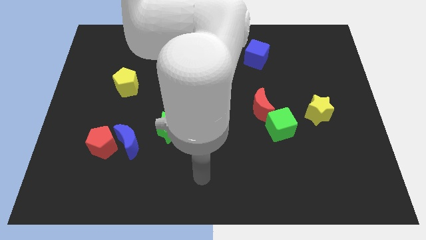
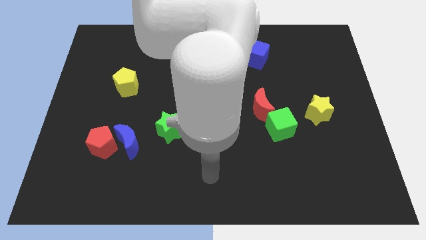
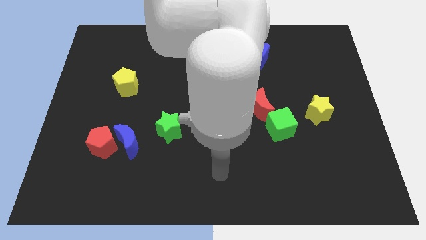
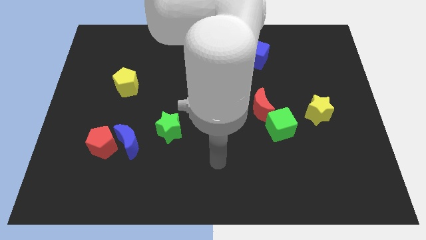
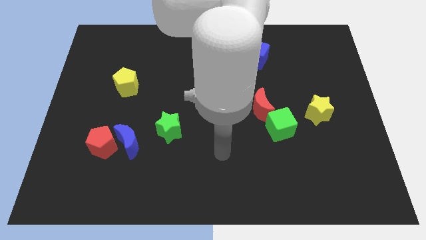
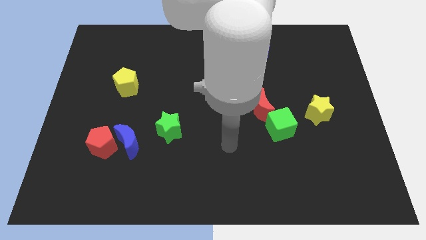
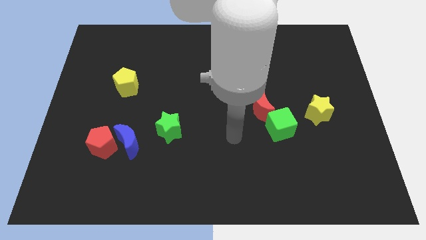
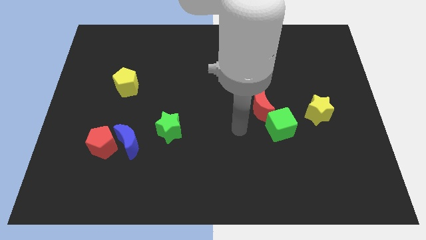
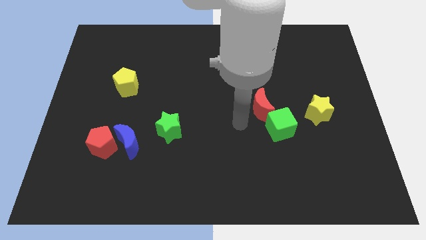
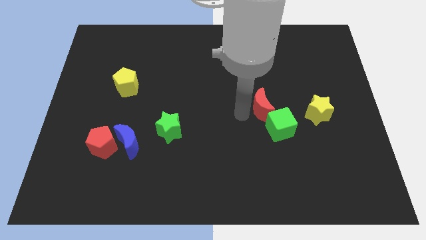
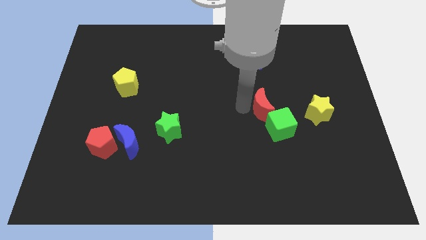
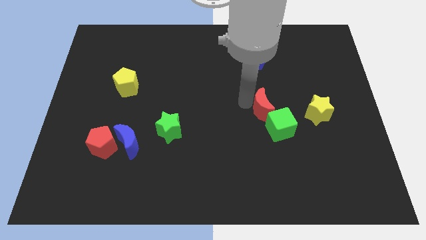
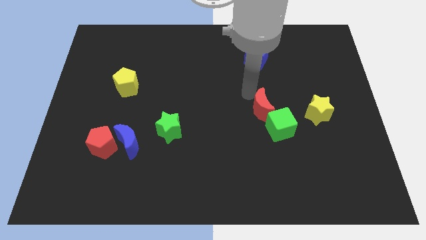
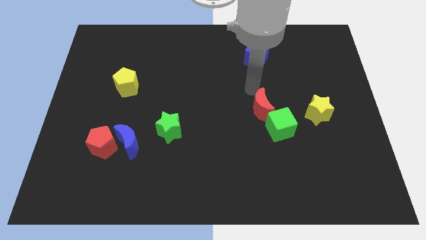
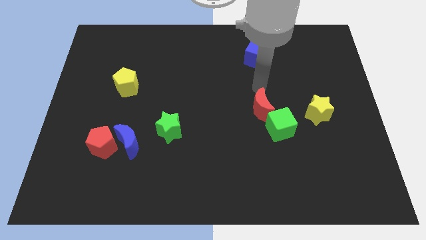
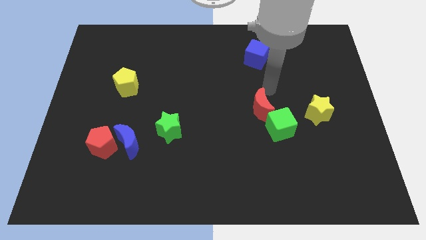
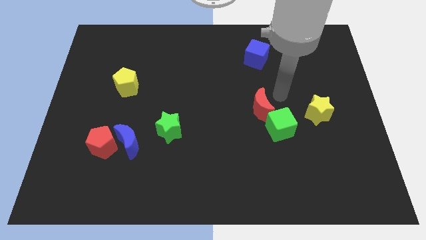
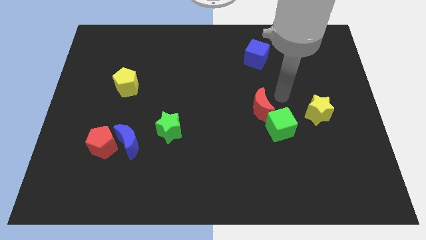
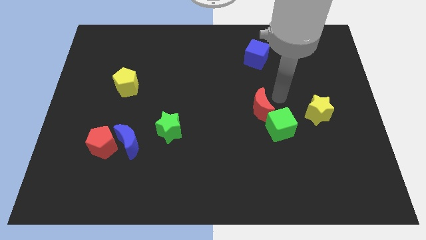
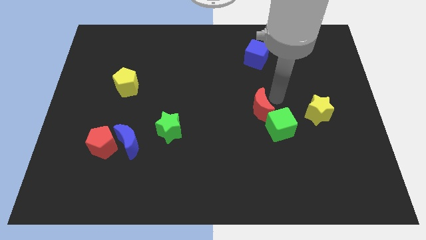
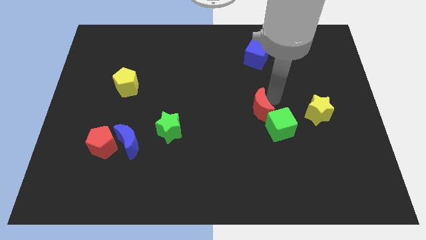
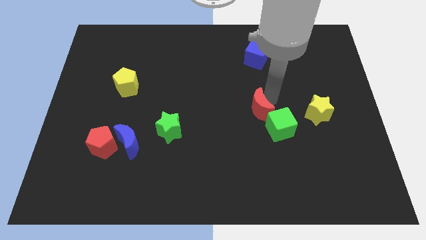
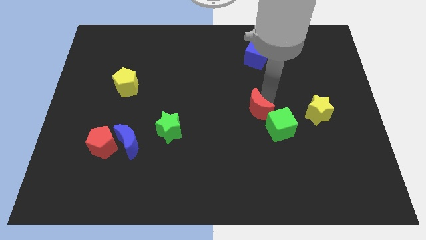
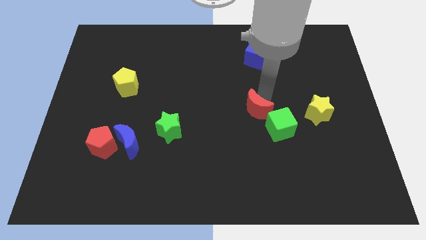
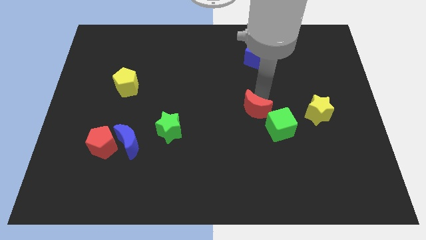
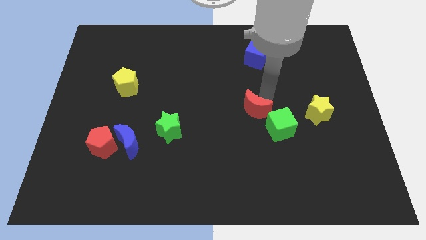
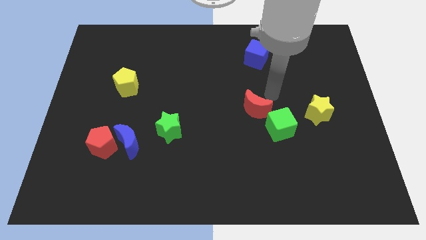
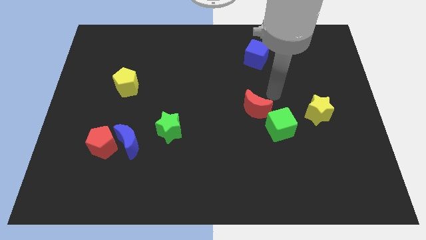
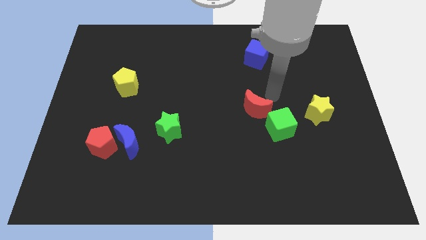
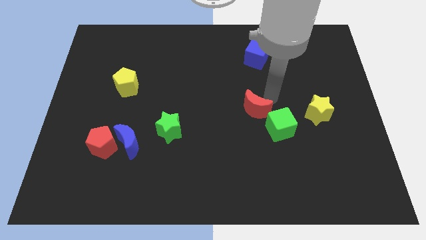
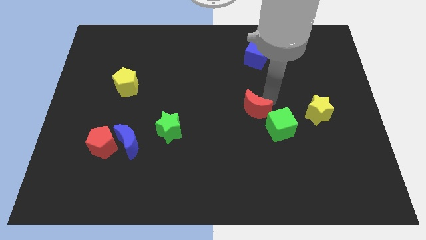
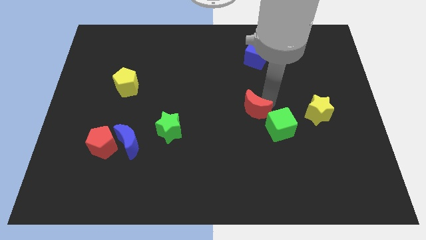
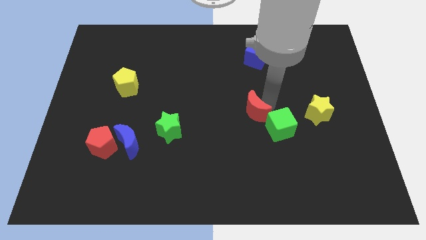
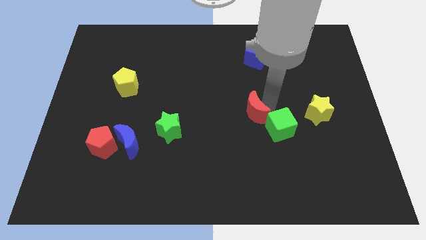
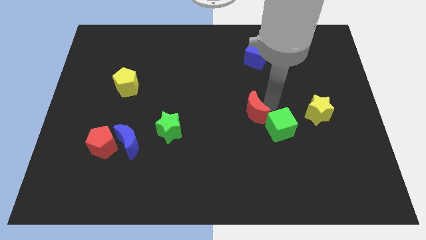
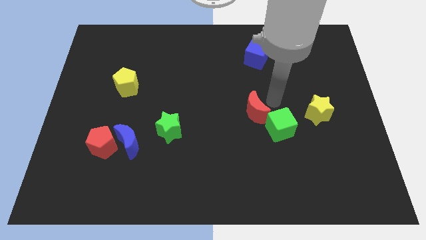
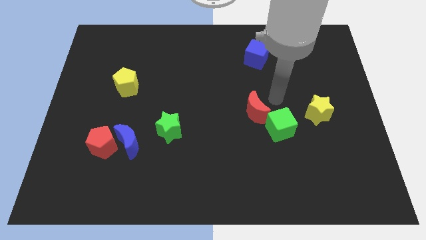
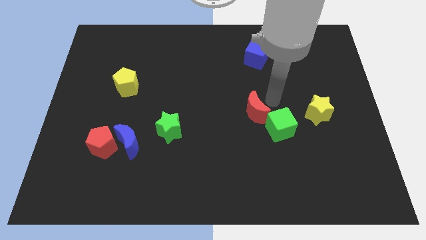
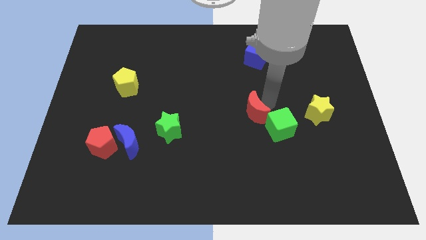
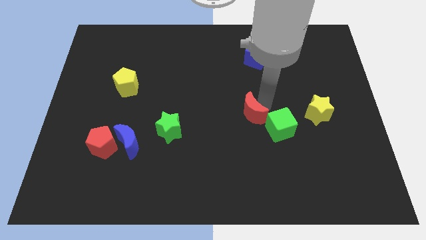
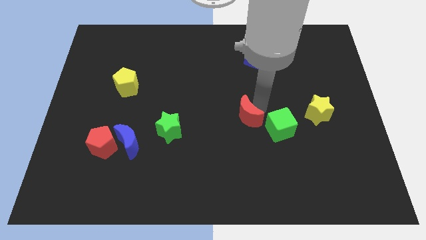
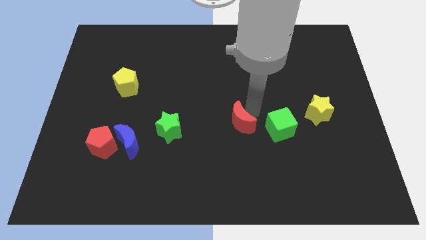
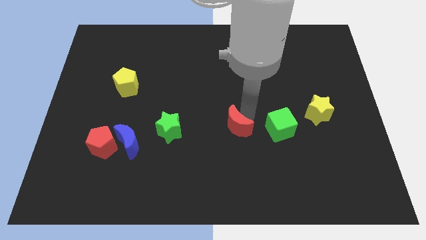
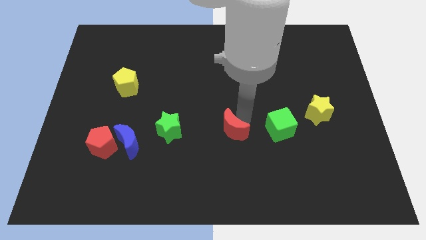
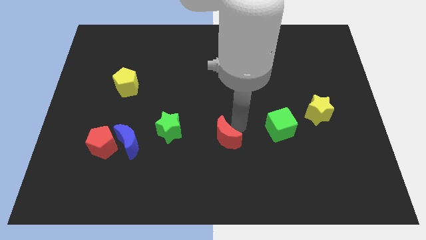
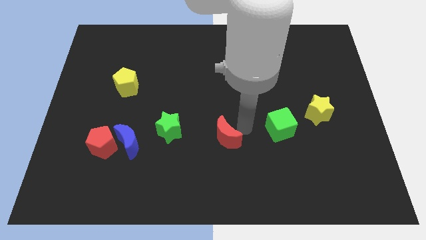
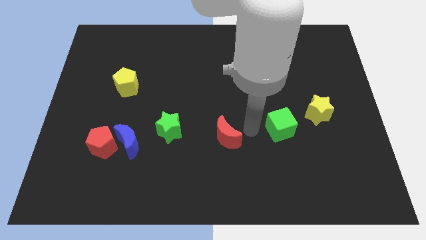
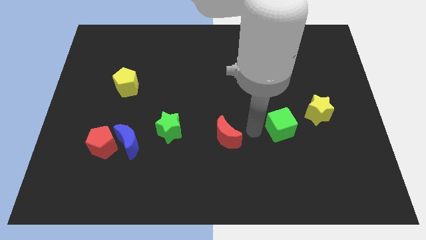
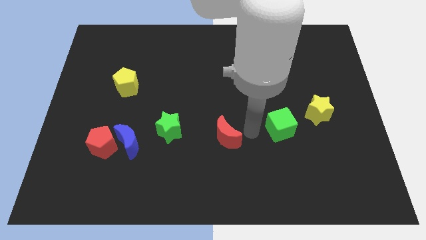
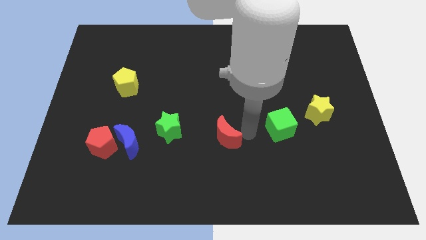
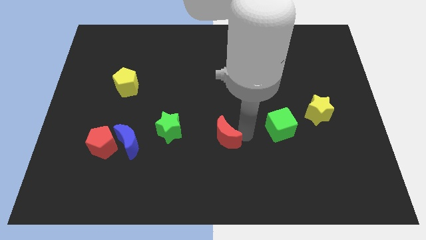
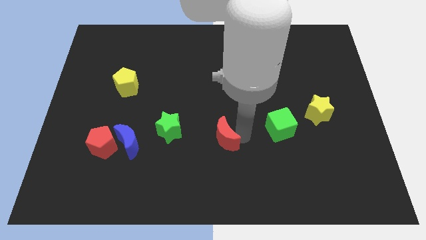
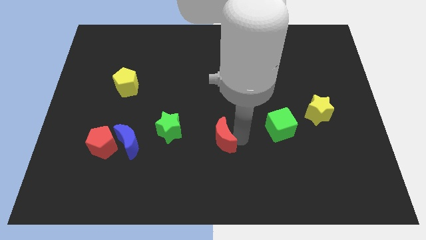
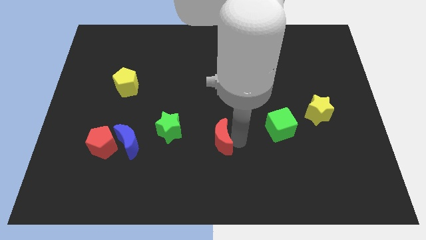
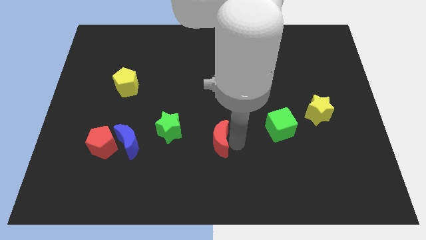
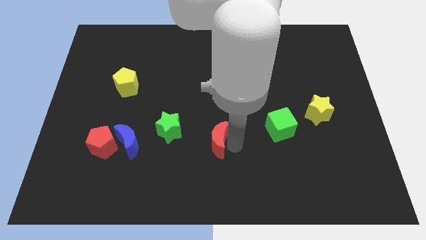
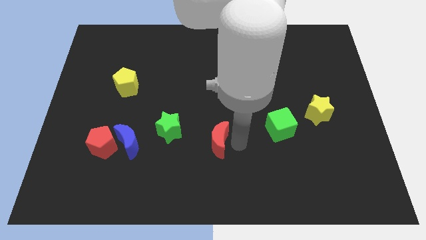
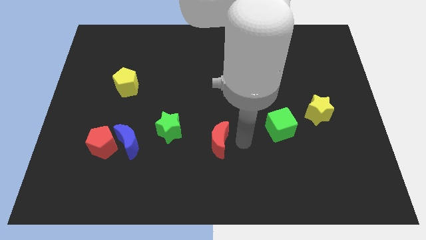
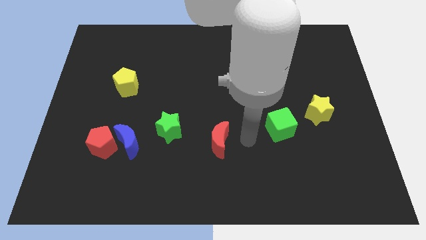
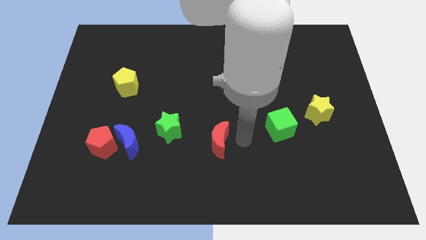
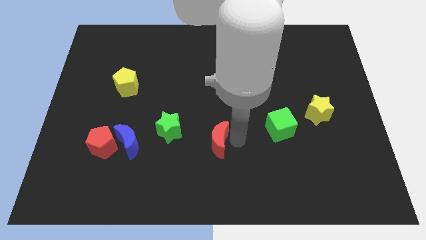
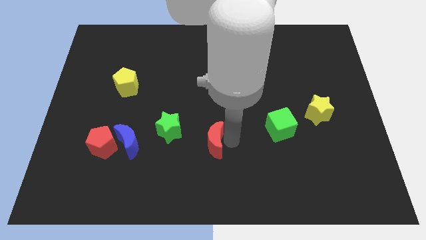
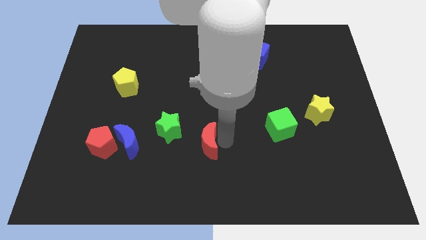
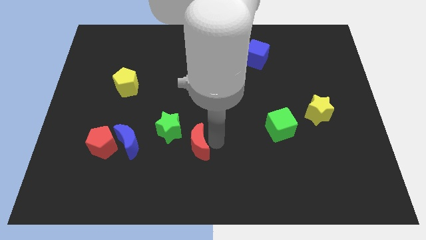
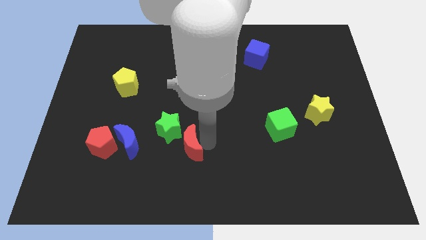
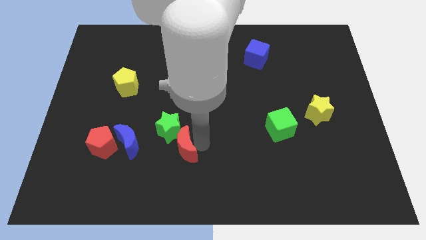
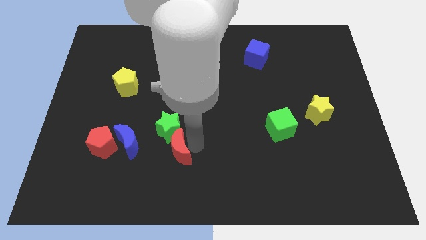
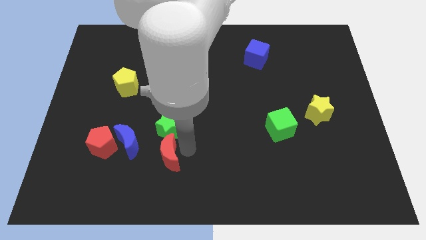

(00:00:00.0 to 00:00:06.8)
put the red moon to the bottom left of the green star
